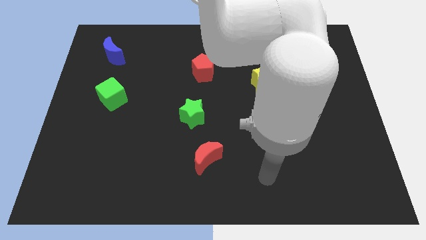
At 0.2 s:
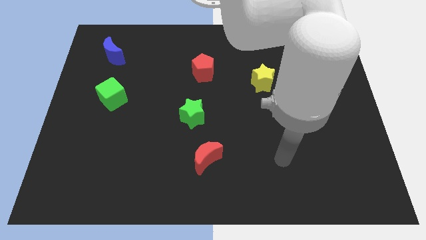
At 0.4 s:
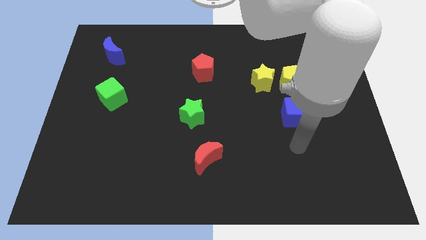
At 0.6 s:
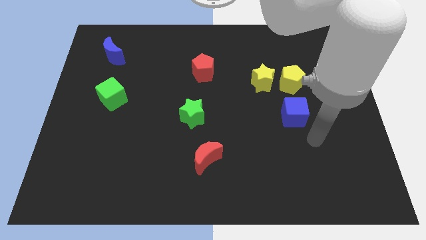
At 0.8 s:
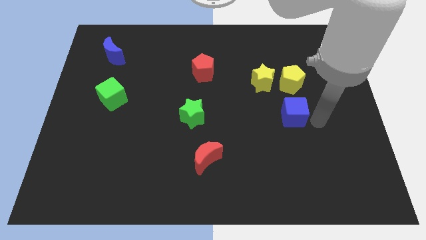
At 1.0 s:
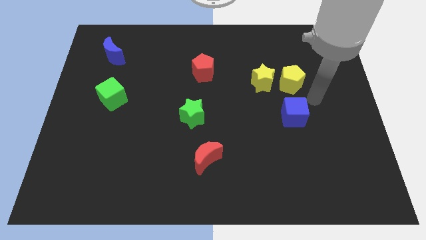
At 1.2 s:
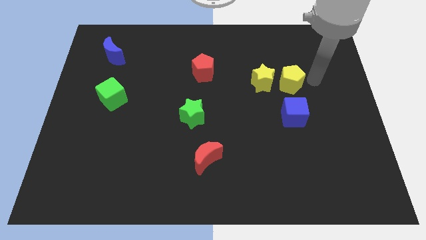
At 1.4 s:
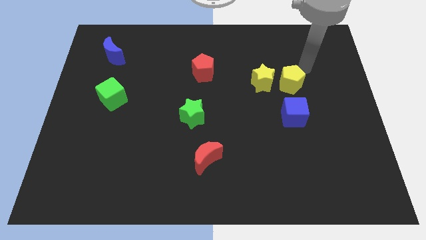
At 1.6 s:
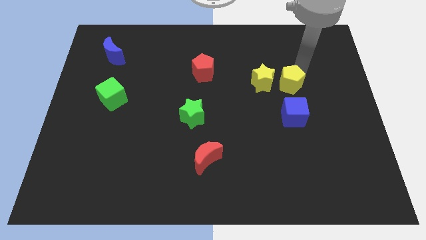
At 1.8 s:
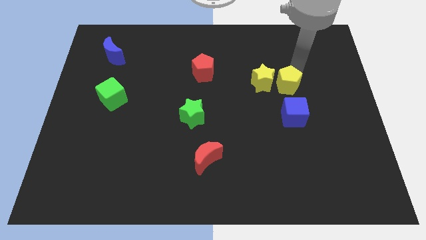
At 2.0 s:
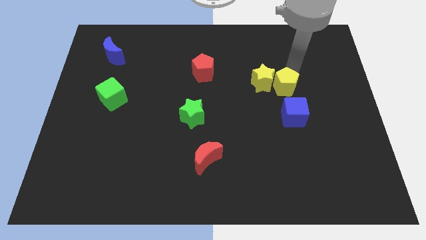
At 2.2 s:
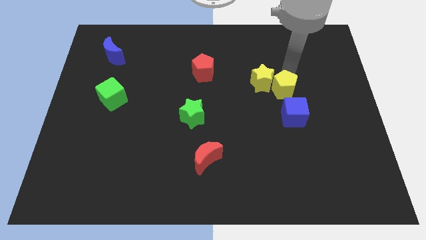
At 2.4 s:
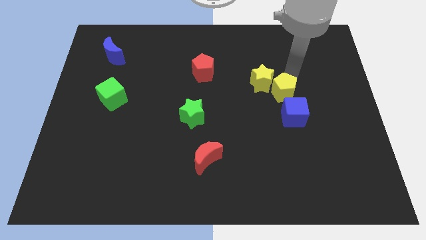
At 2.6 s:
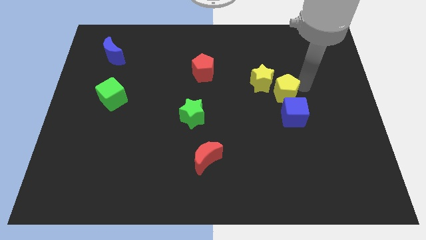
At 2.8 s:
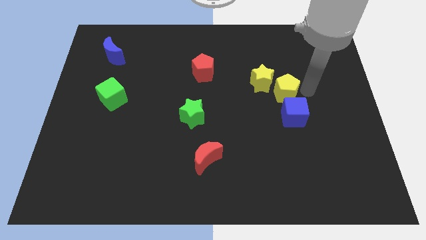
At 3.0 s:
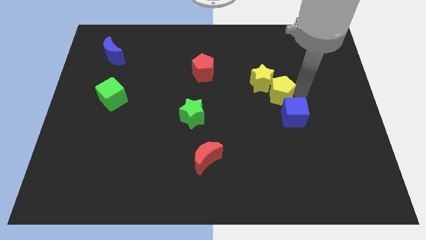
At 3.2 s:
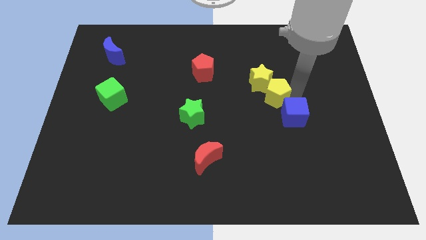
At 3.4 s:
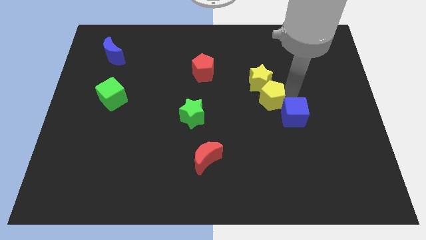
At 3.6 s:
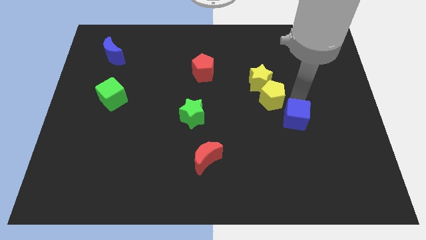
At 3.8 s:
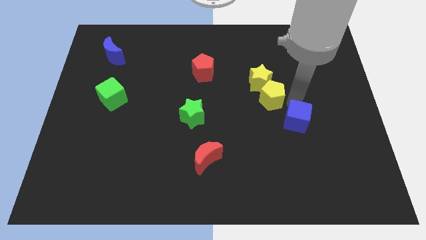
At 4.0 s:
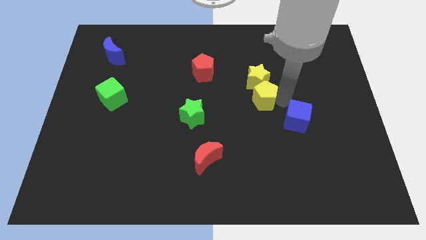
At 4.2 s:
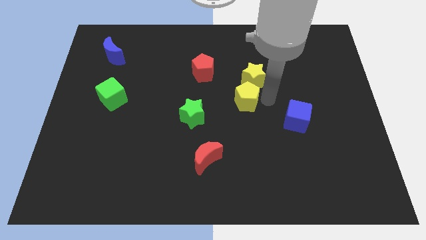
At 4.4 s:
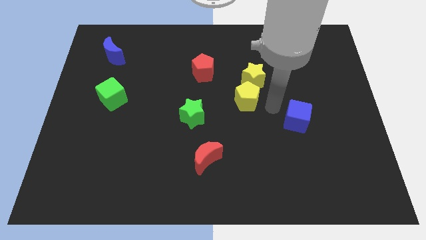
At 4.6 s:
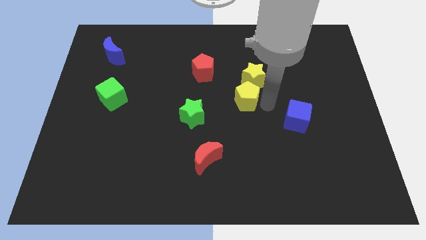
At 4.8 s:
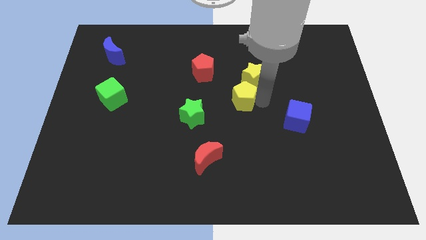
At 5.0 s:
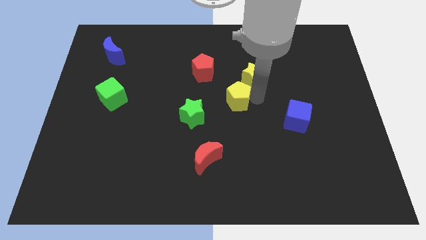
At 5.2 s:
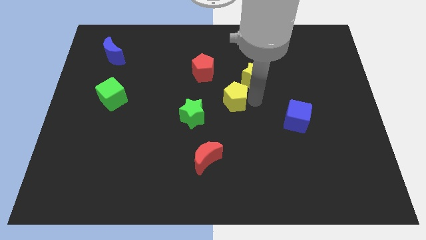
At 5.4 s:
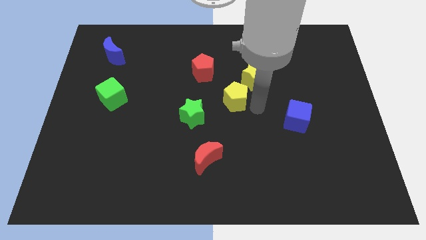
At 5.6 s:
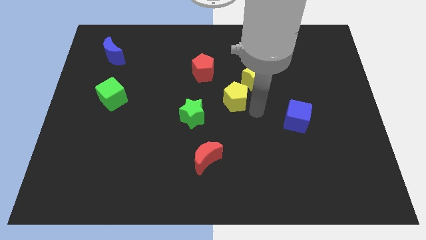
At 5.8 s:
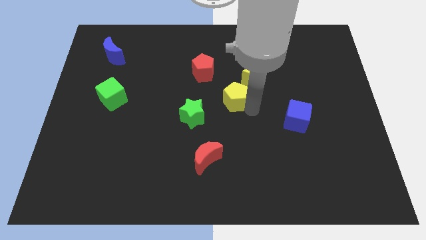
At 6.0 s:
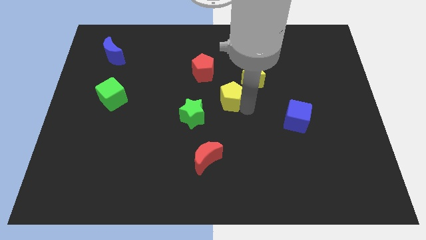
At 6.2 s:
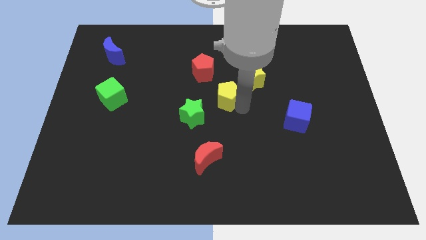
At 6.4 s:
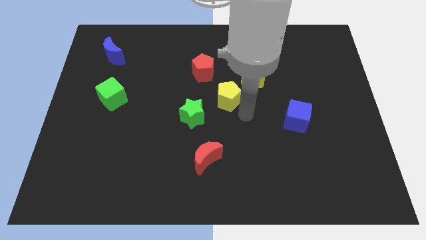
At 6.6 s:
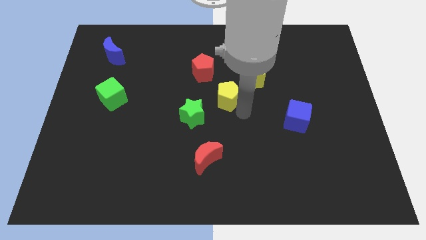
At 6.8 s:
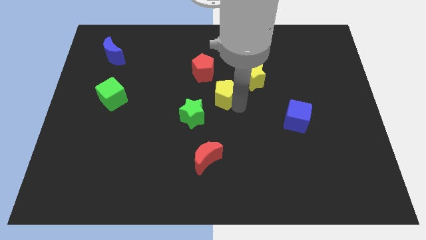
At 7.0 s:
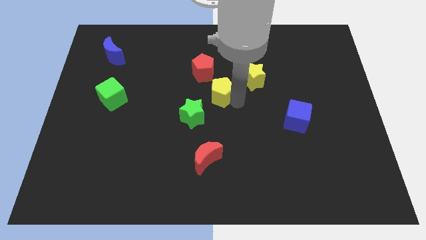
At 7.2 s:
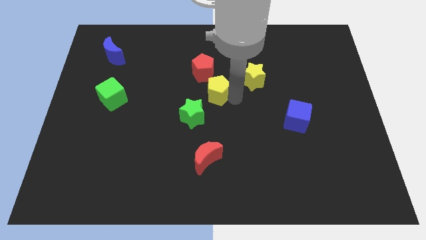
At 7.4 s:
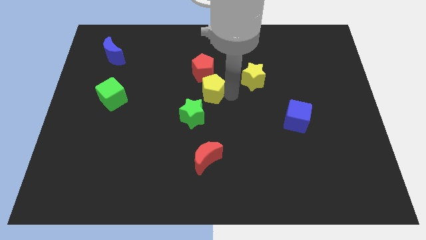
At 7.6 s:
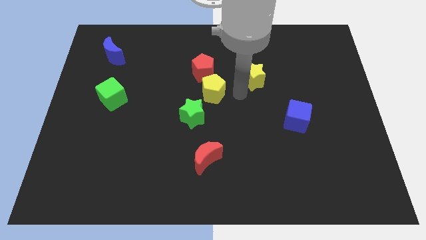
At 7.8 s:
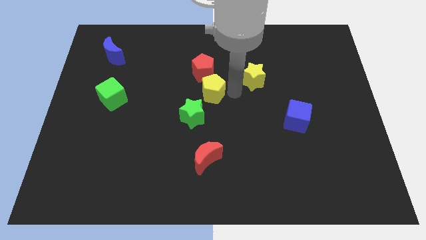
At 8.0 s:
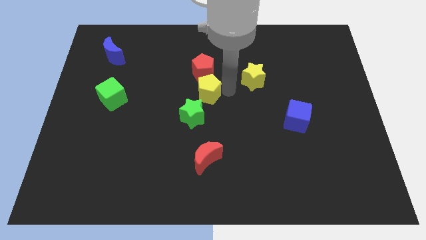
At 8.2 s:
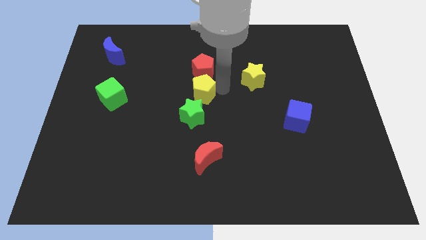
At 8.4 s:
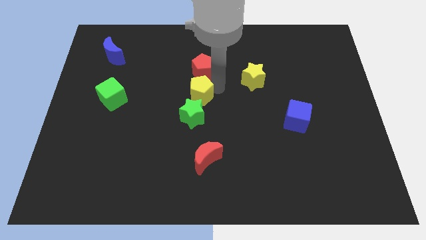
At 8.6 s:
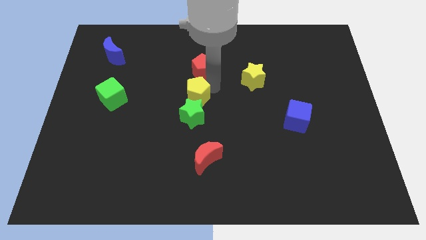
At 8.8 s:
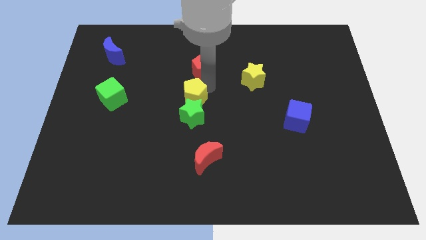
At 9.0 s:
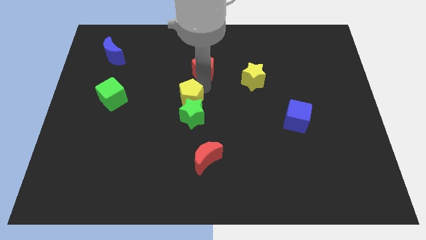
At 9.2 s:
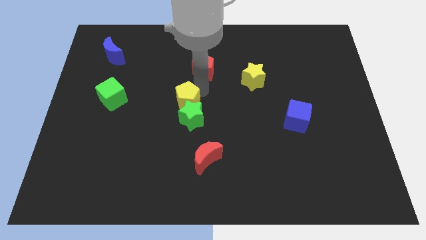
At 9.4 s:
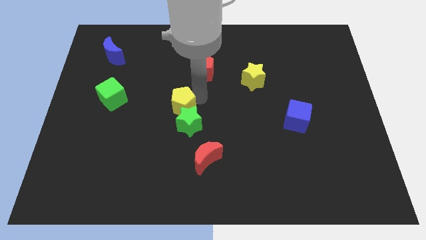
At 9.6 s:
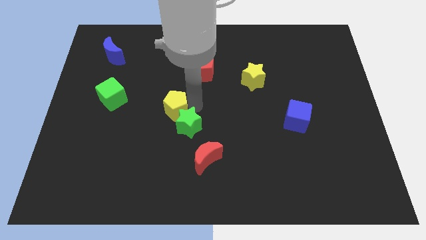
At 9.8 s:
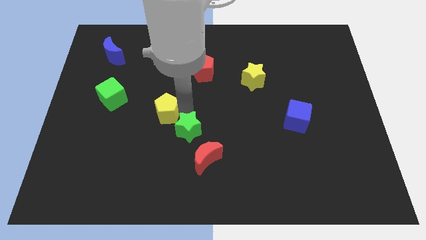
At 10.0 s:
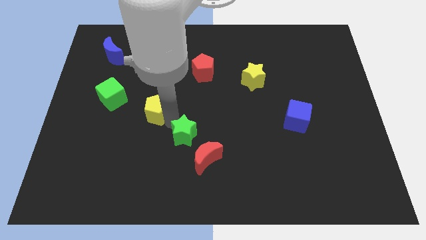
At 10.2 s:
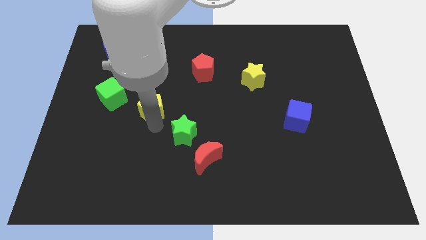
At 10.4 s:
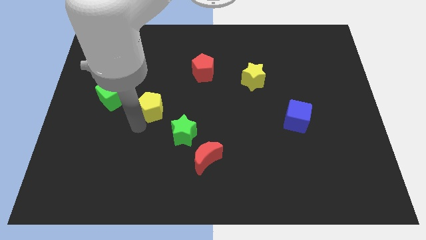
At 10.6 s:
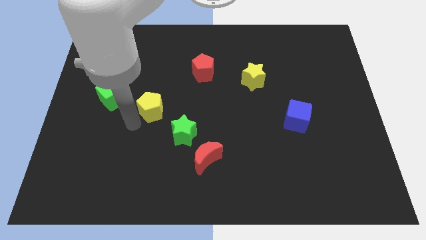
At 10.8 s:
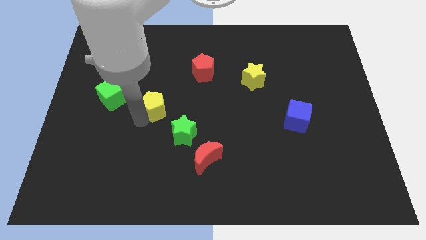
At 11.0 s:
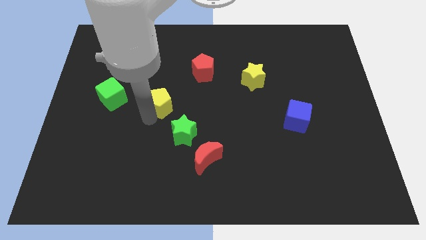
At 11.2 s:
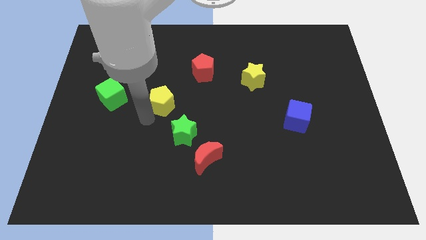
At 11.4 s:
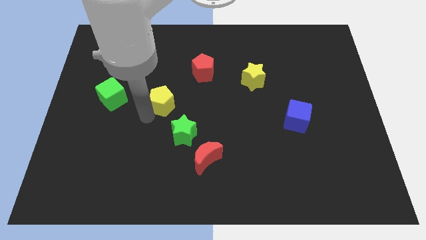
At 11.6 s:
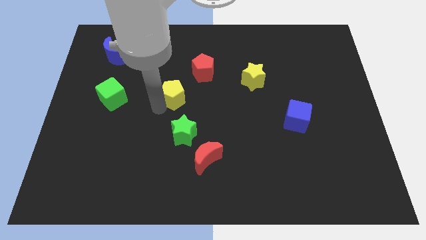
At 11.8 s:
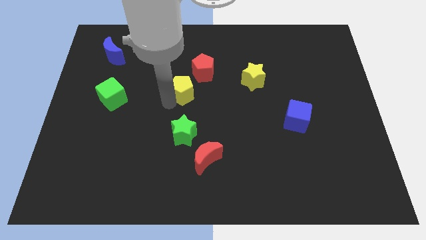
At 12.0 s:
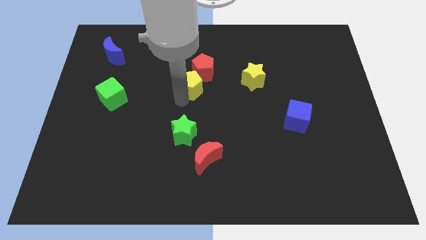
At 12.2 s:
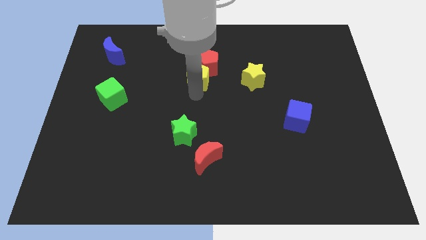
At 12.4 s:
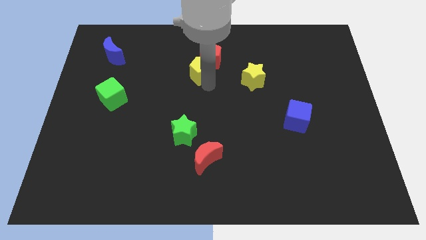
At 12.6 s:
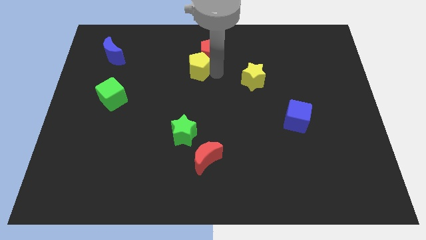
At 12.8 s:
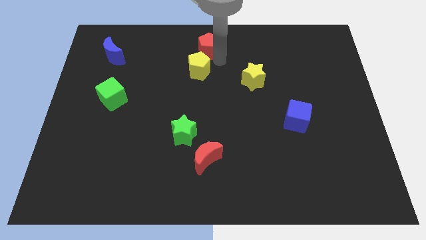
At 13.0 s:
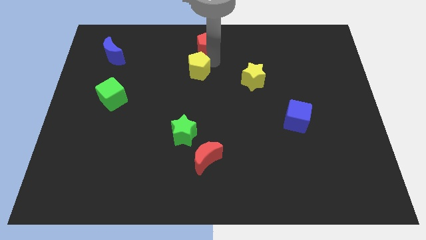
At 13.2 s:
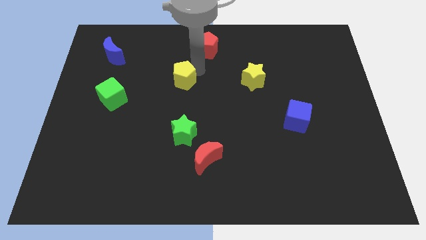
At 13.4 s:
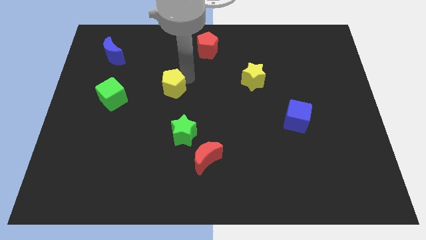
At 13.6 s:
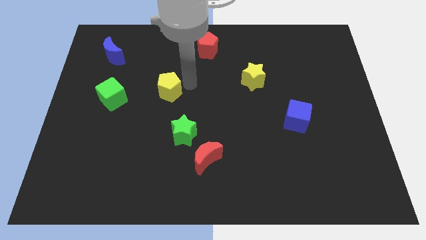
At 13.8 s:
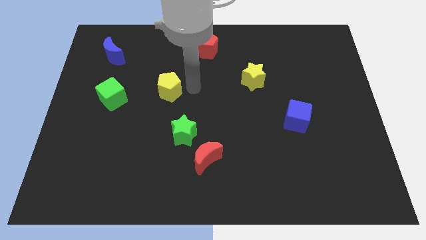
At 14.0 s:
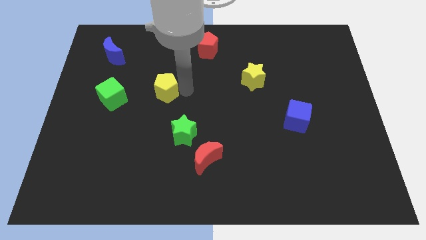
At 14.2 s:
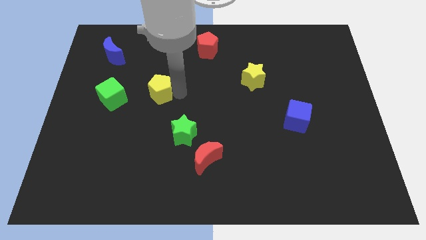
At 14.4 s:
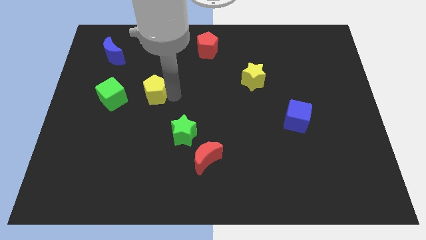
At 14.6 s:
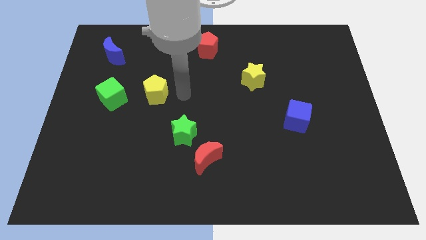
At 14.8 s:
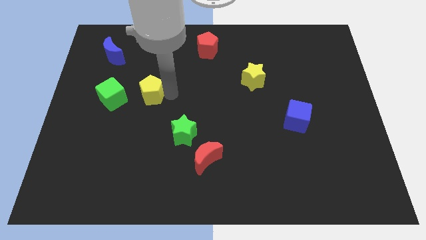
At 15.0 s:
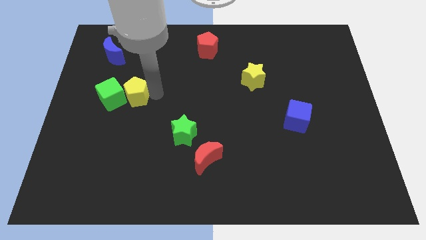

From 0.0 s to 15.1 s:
move the yellow pentagon towards the green cube
